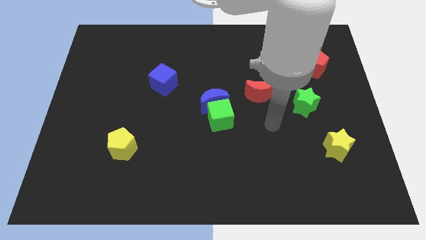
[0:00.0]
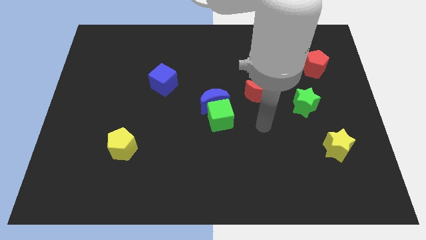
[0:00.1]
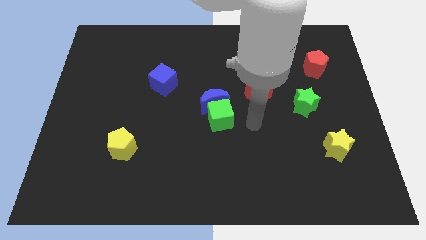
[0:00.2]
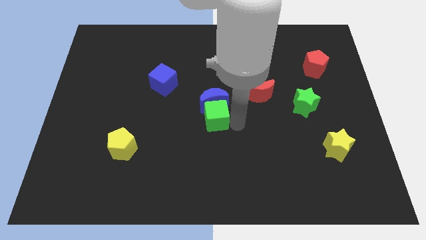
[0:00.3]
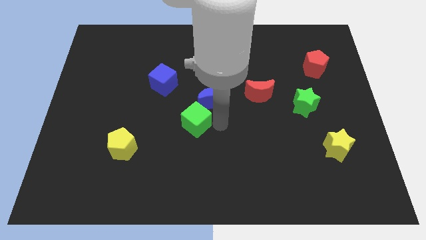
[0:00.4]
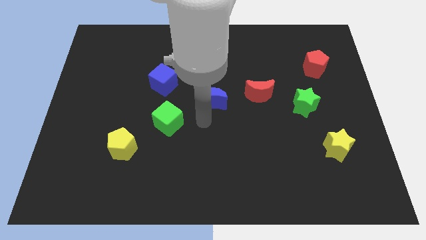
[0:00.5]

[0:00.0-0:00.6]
pull the blue moon apart from the green cube

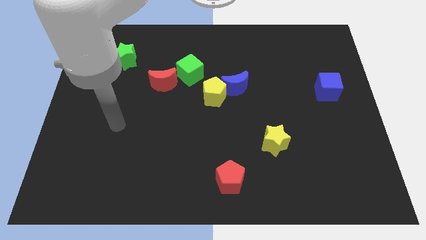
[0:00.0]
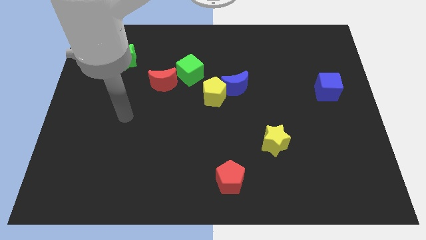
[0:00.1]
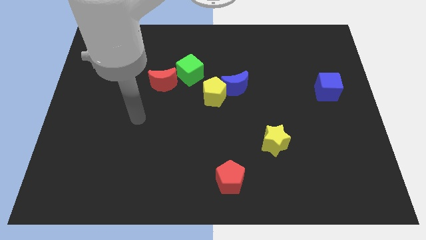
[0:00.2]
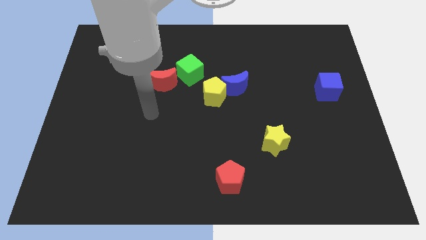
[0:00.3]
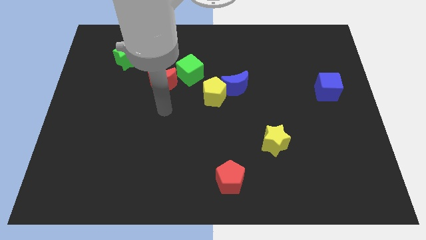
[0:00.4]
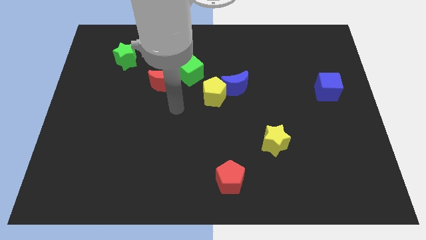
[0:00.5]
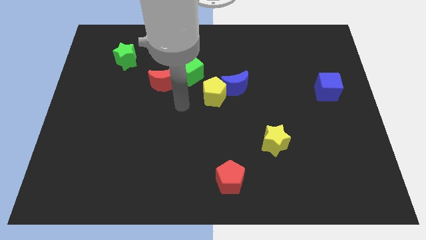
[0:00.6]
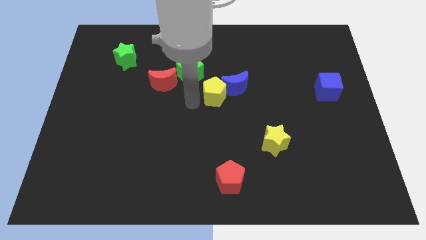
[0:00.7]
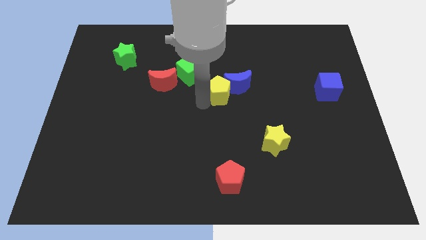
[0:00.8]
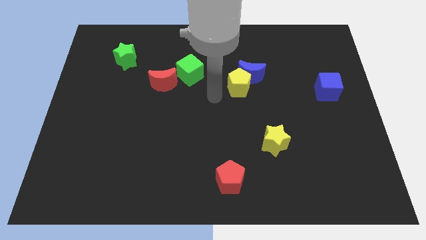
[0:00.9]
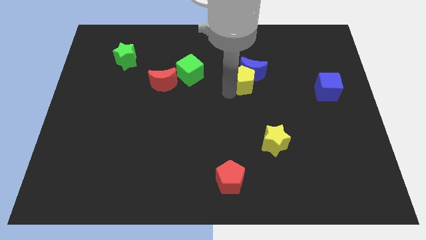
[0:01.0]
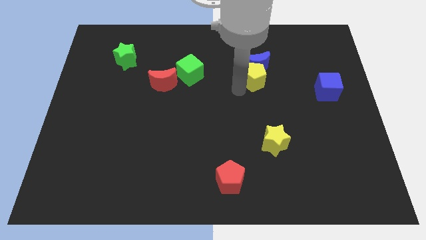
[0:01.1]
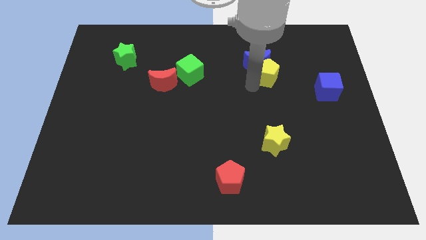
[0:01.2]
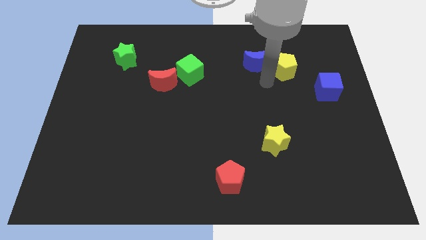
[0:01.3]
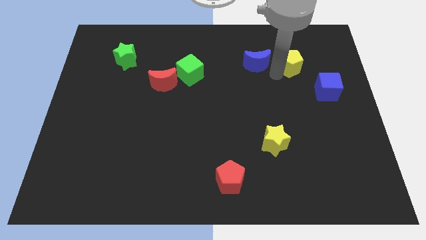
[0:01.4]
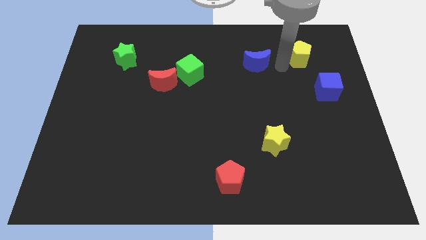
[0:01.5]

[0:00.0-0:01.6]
pull the blue moon apart from the yellow pentagon

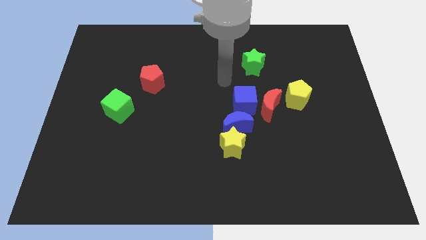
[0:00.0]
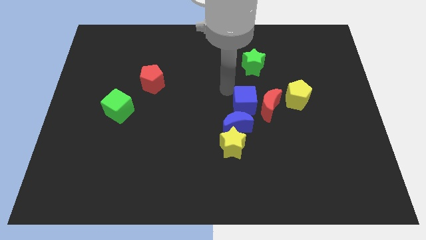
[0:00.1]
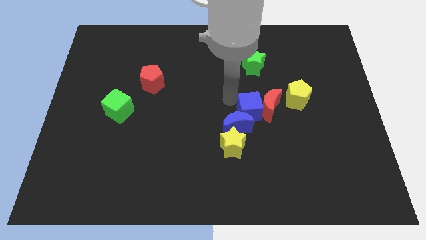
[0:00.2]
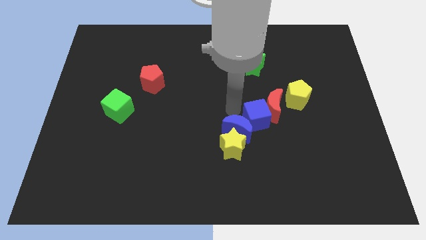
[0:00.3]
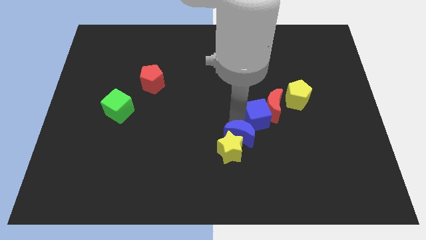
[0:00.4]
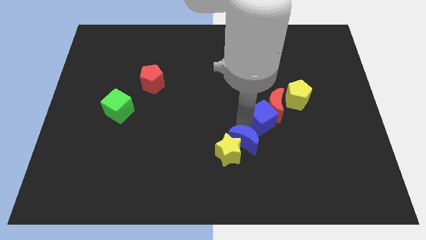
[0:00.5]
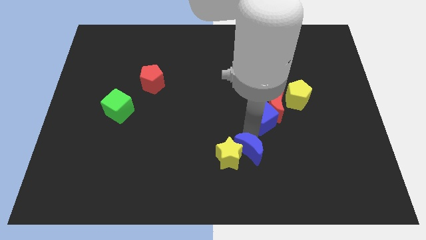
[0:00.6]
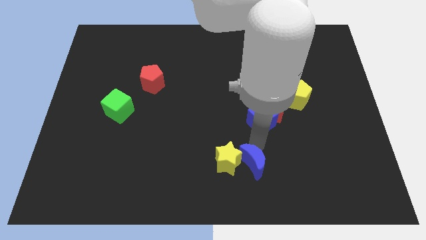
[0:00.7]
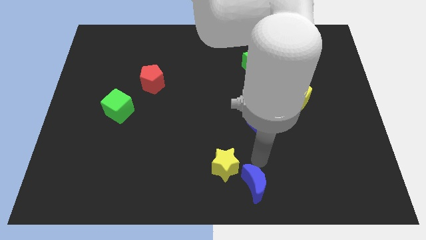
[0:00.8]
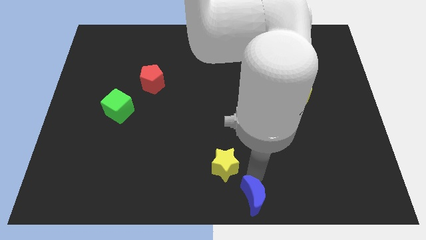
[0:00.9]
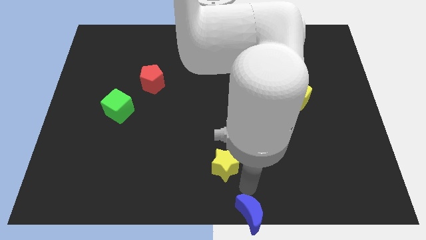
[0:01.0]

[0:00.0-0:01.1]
move the yellow star away from the blue moon

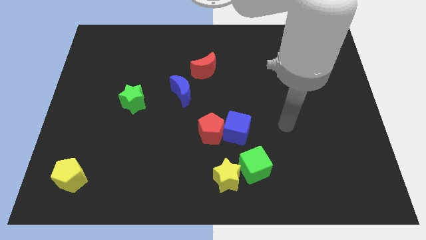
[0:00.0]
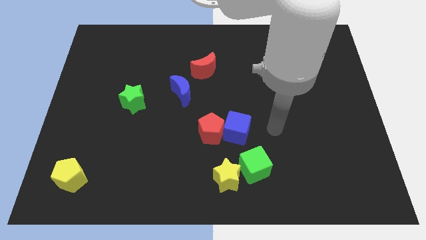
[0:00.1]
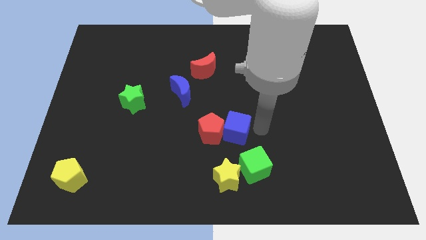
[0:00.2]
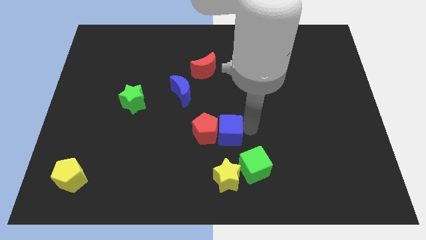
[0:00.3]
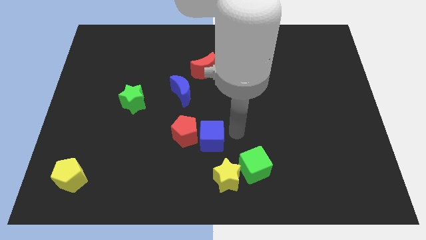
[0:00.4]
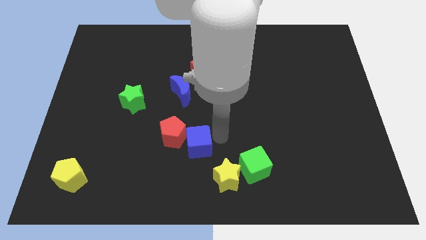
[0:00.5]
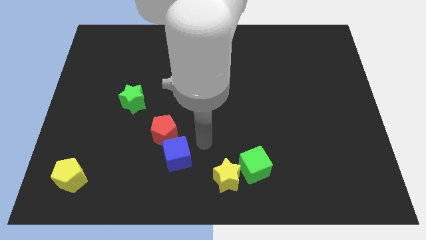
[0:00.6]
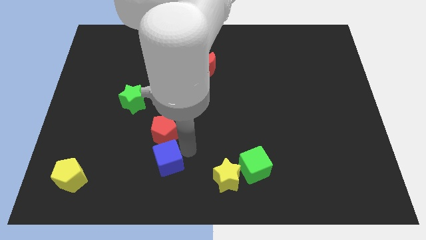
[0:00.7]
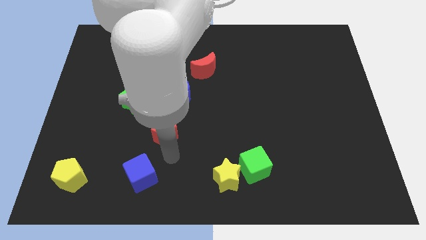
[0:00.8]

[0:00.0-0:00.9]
separate the red pentagon from the blue cube

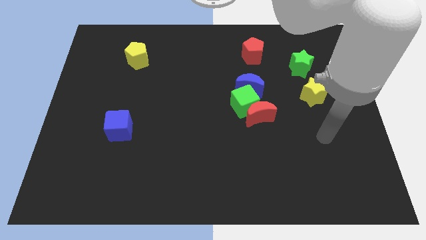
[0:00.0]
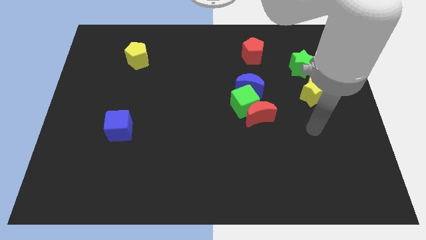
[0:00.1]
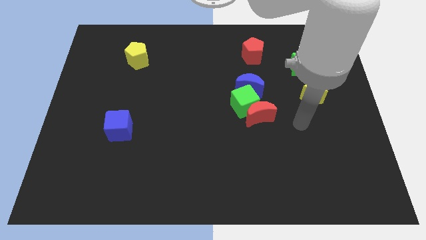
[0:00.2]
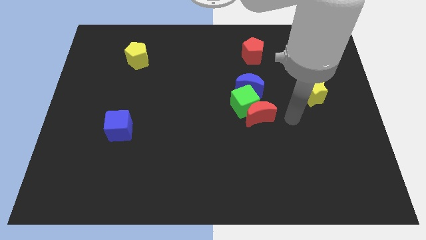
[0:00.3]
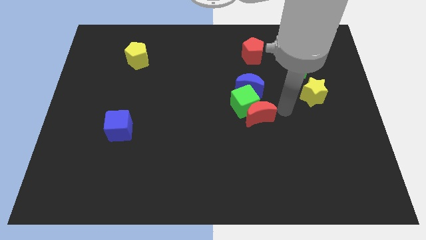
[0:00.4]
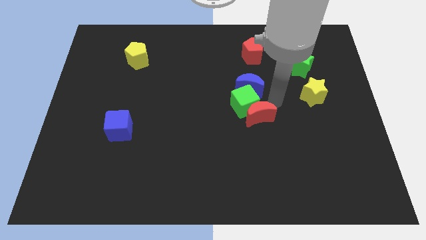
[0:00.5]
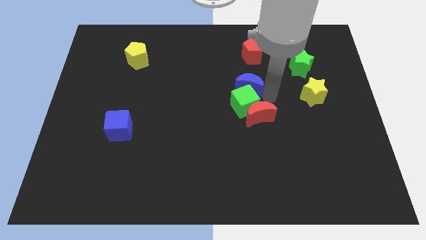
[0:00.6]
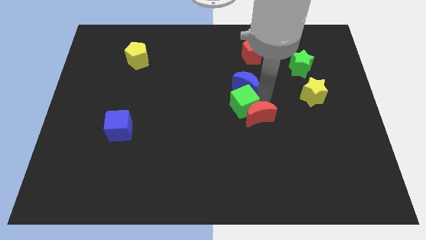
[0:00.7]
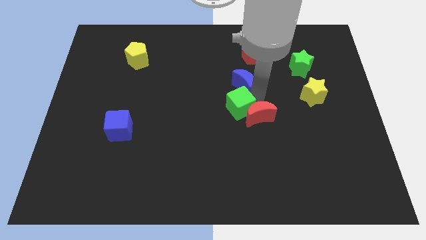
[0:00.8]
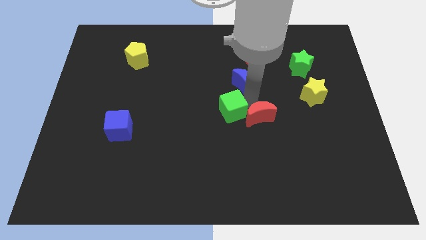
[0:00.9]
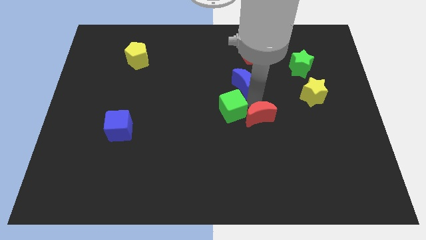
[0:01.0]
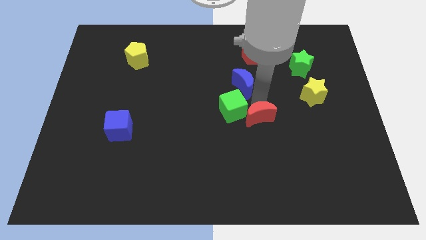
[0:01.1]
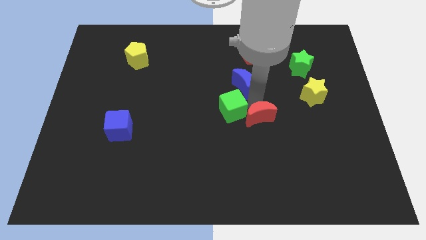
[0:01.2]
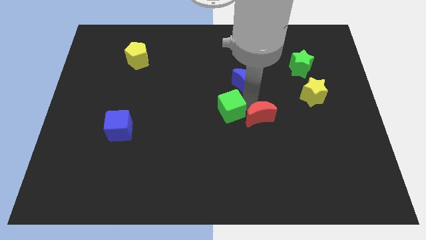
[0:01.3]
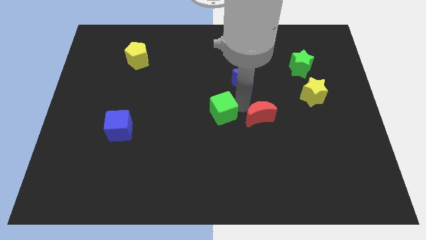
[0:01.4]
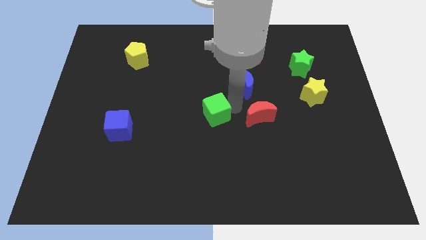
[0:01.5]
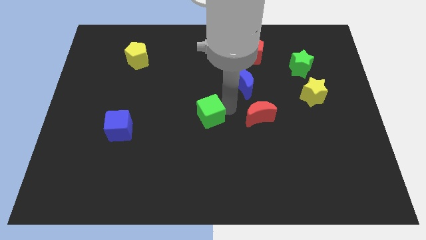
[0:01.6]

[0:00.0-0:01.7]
pull the green cube apart from the red moon and blue moon

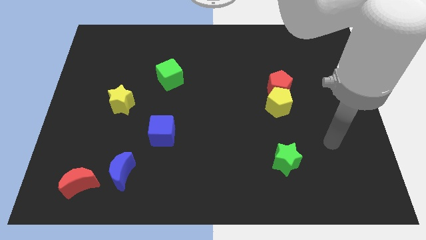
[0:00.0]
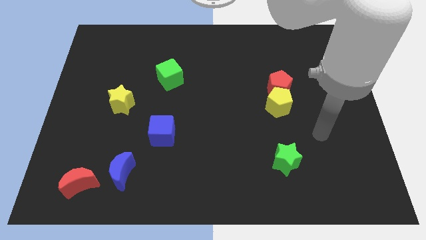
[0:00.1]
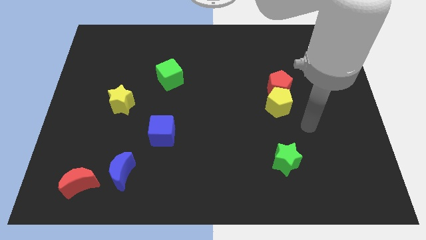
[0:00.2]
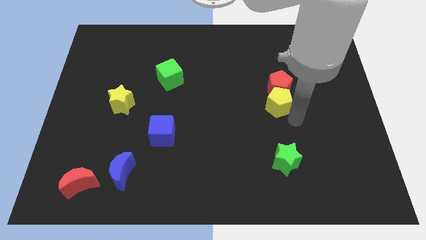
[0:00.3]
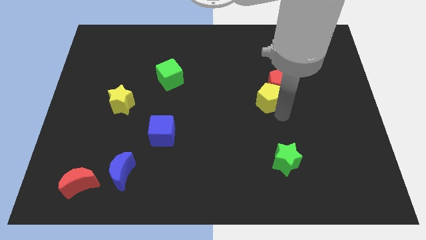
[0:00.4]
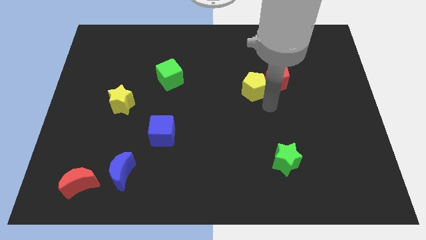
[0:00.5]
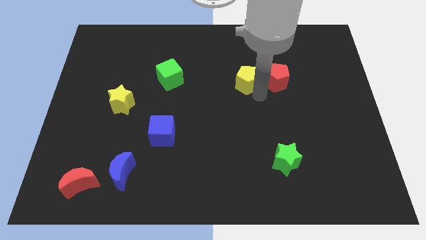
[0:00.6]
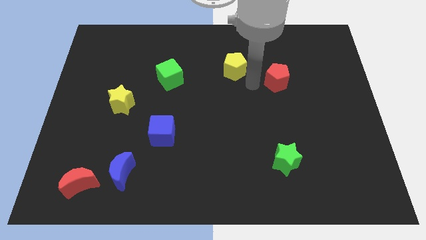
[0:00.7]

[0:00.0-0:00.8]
pull the red pentagon apart from the yellow pentagon

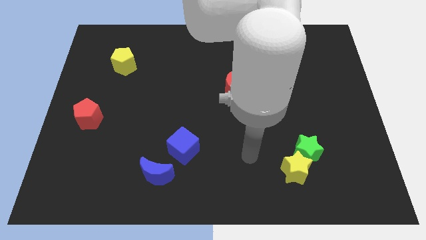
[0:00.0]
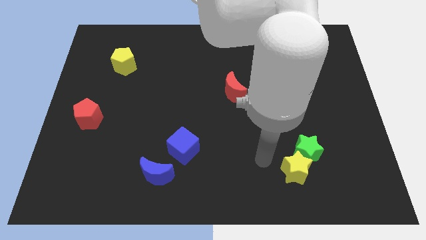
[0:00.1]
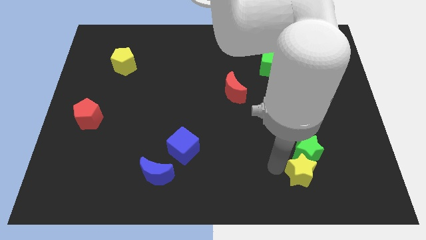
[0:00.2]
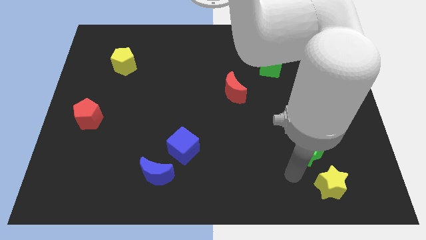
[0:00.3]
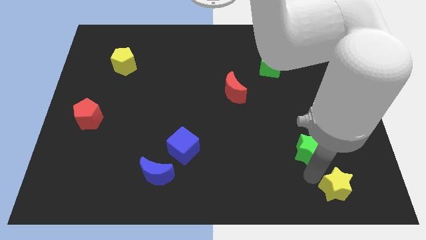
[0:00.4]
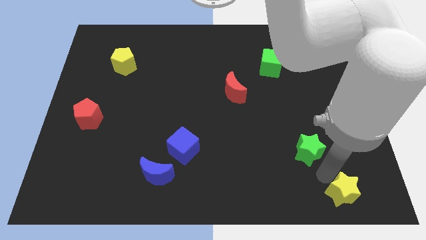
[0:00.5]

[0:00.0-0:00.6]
pull the green star apart from the yellow star

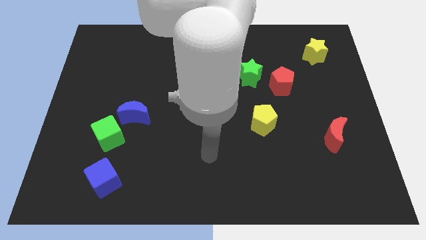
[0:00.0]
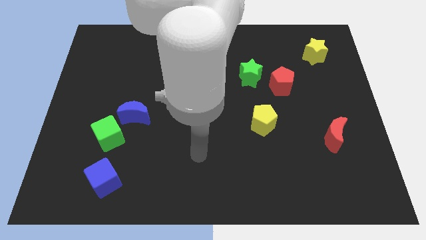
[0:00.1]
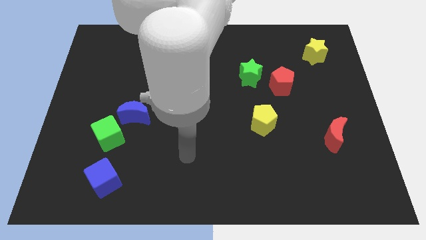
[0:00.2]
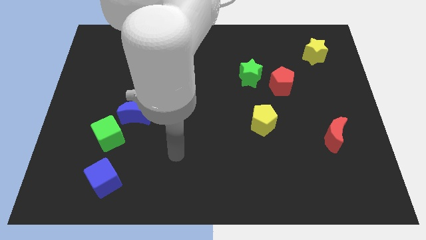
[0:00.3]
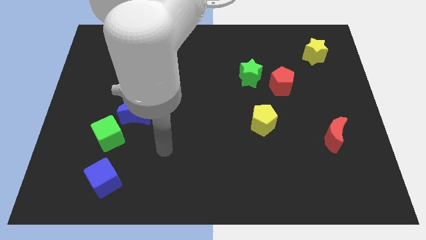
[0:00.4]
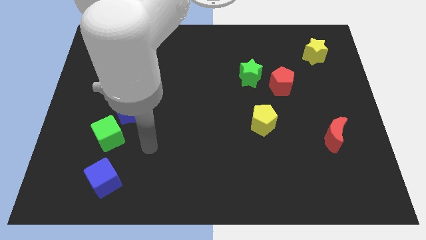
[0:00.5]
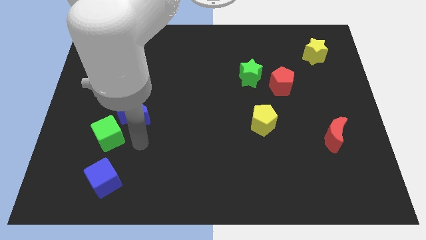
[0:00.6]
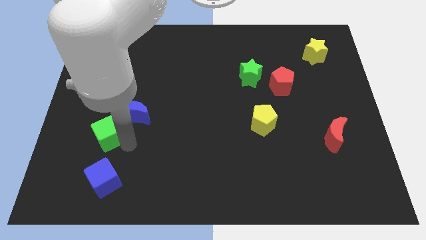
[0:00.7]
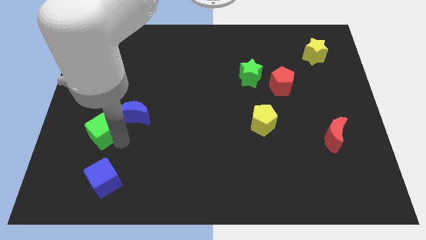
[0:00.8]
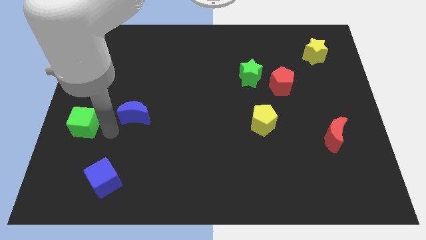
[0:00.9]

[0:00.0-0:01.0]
separate the blue moon from the green cube

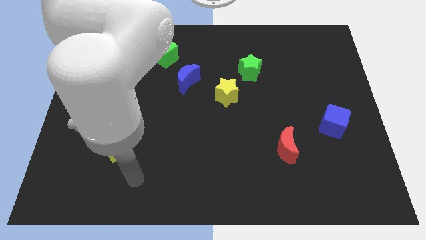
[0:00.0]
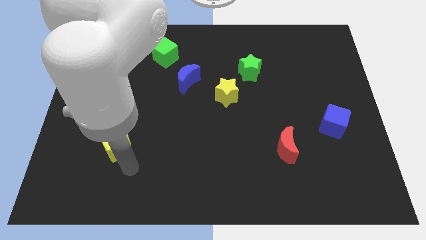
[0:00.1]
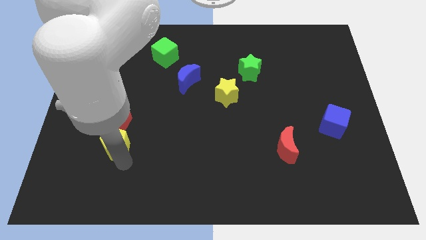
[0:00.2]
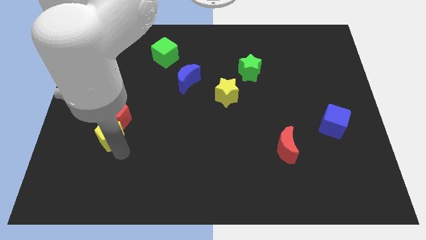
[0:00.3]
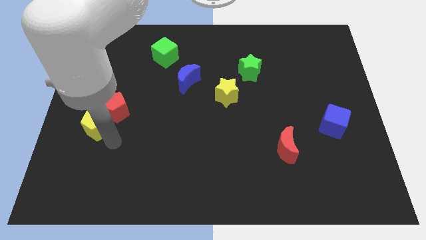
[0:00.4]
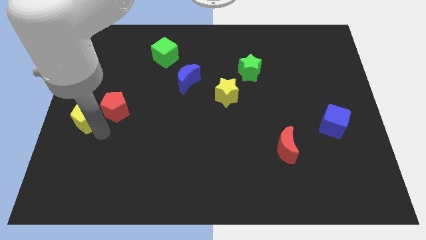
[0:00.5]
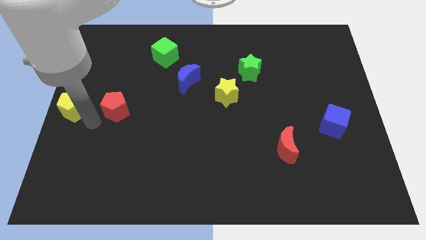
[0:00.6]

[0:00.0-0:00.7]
move the red pentagon away from the yellow pentagon

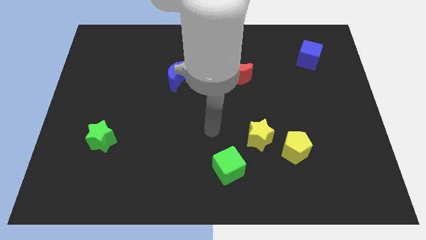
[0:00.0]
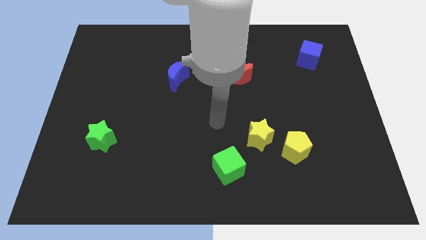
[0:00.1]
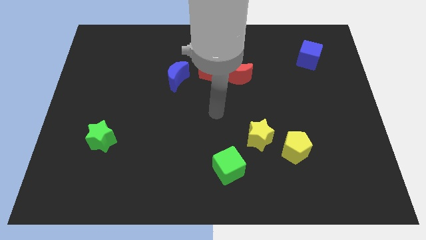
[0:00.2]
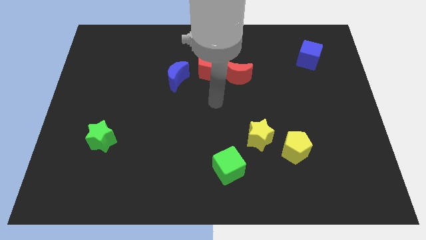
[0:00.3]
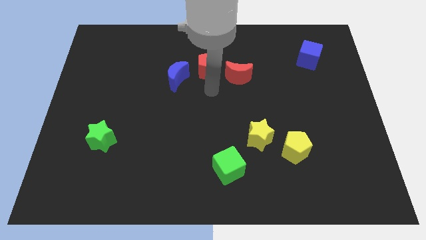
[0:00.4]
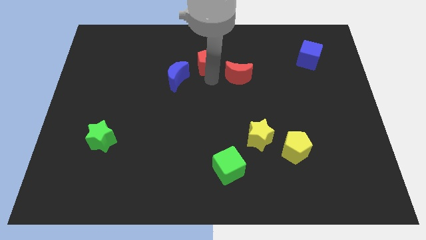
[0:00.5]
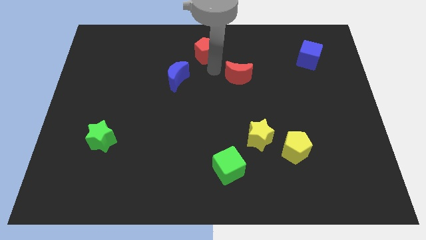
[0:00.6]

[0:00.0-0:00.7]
pull the red moon apart from the red pentagon
